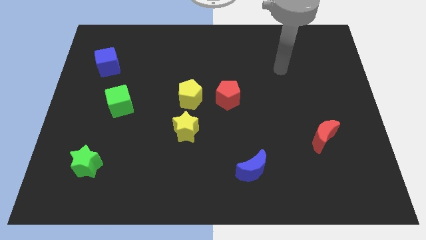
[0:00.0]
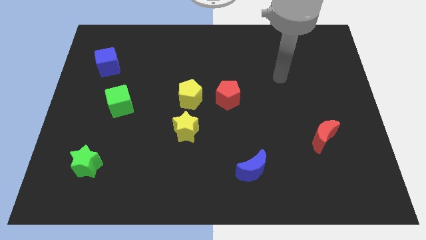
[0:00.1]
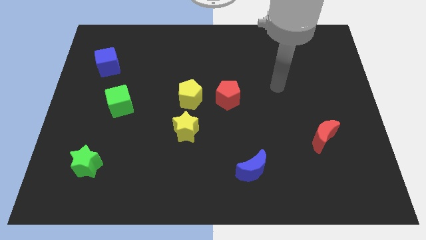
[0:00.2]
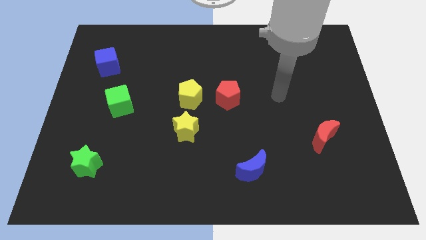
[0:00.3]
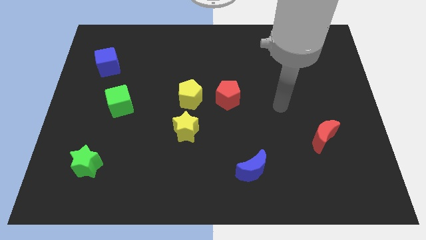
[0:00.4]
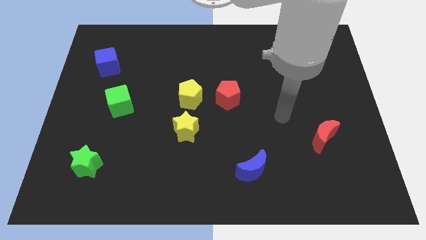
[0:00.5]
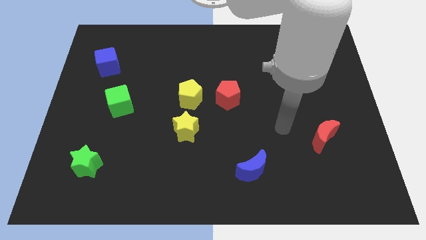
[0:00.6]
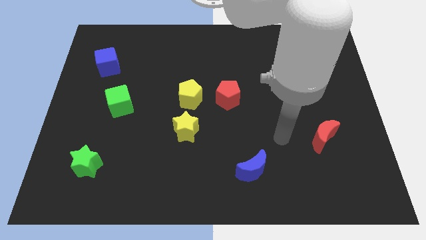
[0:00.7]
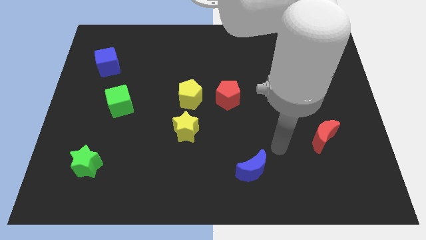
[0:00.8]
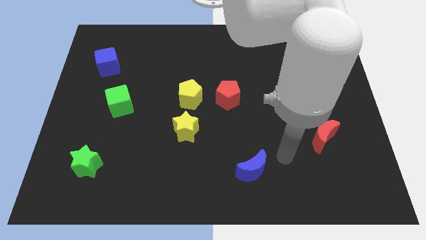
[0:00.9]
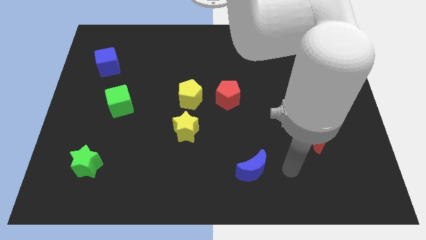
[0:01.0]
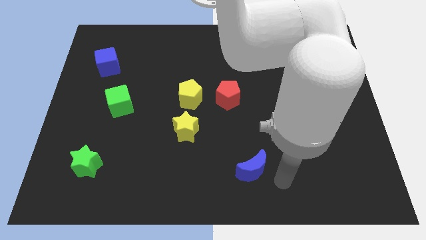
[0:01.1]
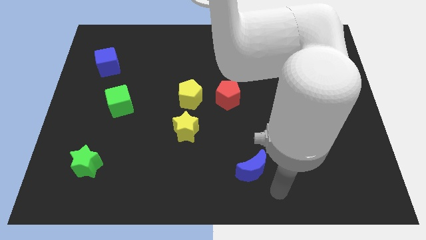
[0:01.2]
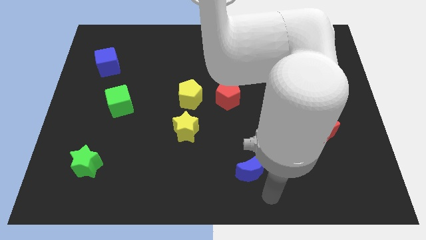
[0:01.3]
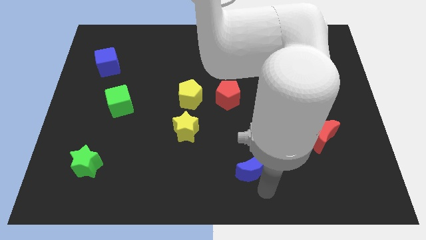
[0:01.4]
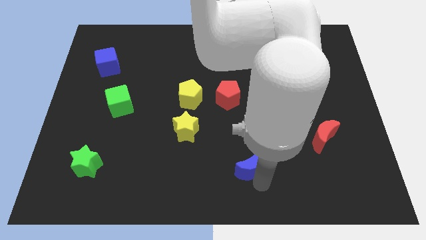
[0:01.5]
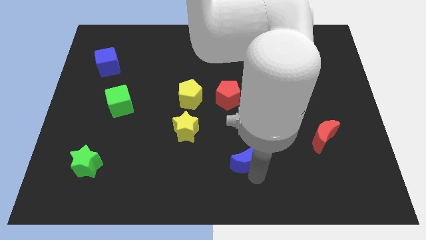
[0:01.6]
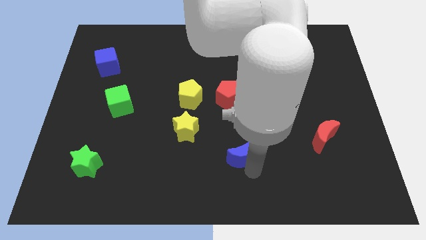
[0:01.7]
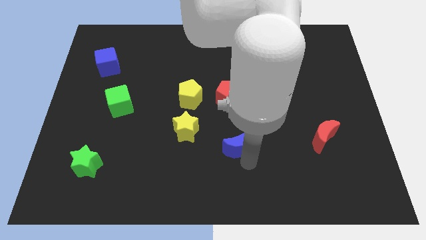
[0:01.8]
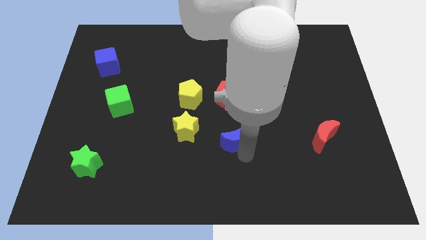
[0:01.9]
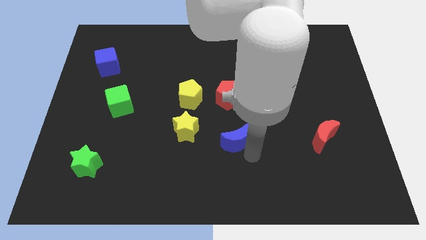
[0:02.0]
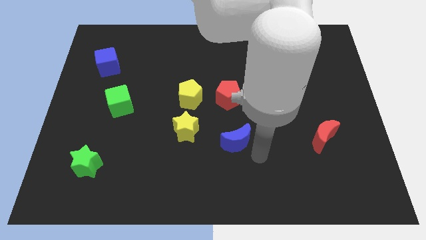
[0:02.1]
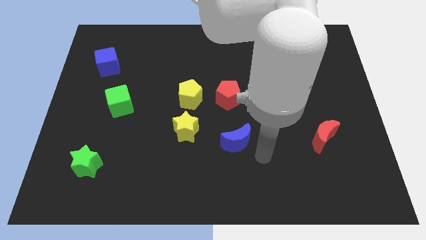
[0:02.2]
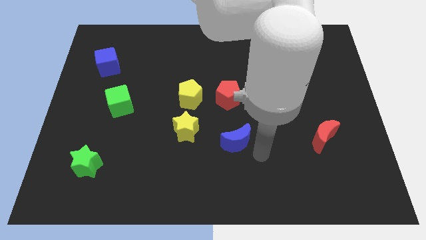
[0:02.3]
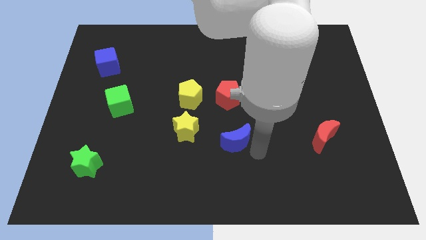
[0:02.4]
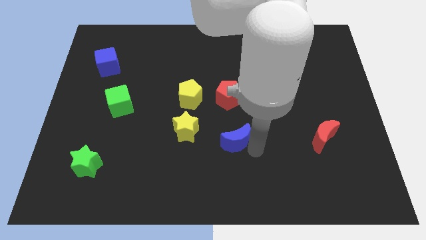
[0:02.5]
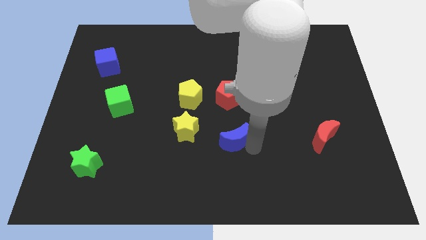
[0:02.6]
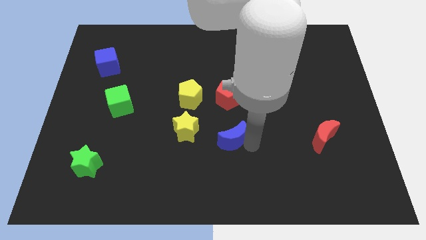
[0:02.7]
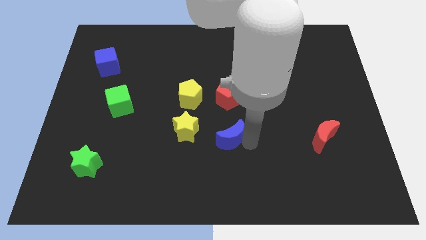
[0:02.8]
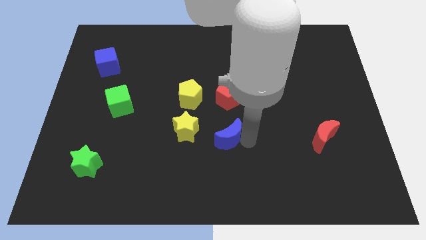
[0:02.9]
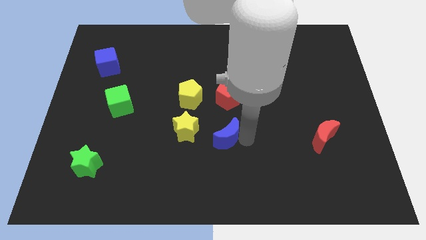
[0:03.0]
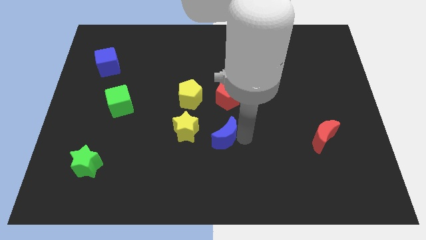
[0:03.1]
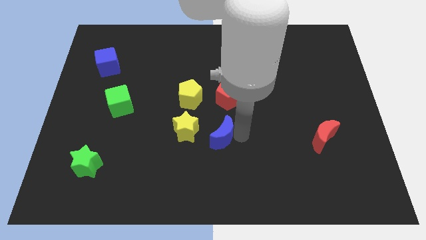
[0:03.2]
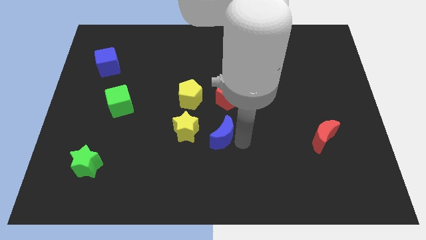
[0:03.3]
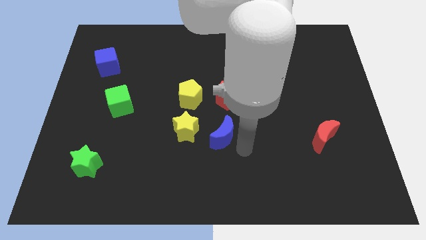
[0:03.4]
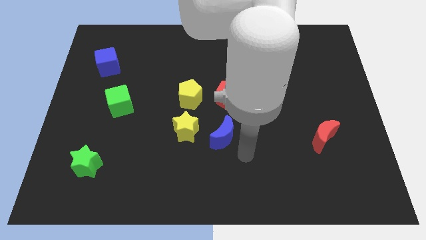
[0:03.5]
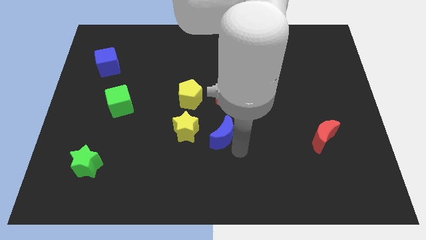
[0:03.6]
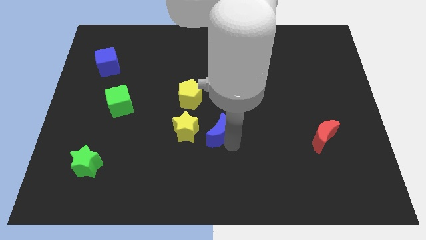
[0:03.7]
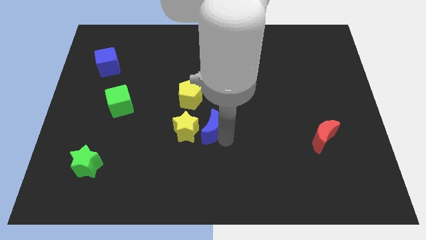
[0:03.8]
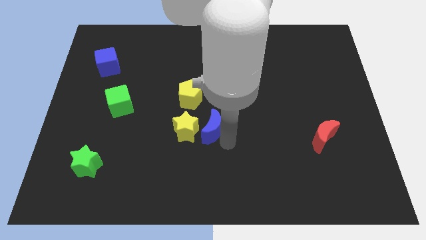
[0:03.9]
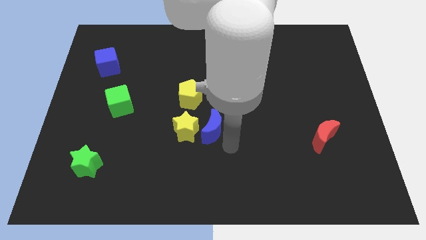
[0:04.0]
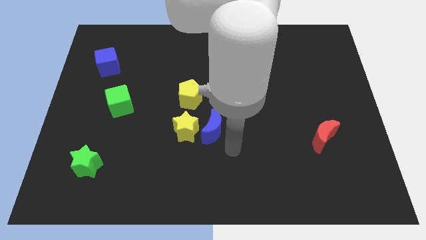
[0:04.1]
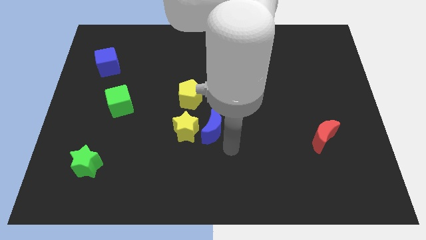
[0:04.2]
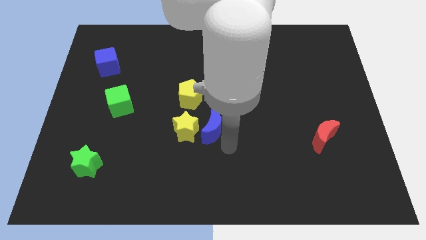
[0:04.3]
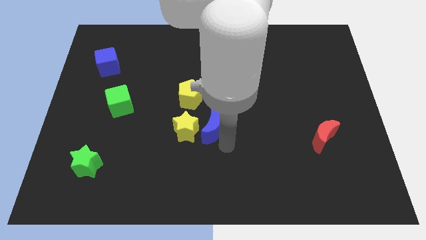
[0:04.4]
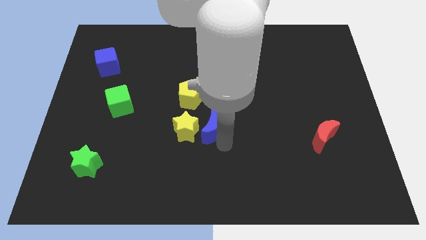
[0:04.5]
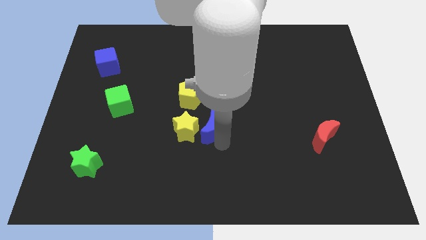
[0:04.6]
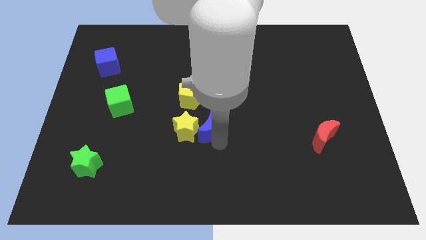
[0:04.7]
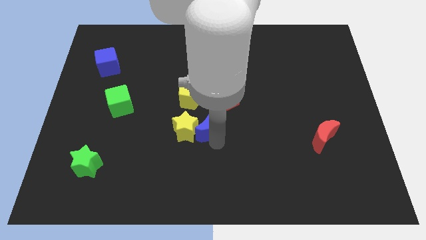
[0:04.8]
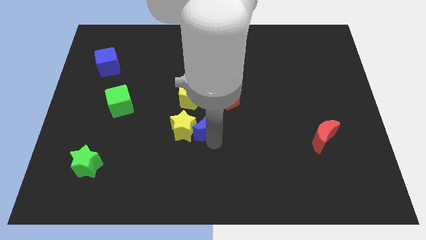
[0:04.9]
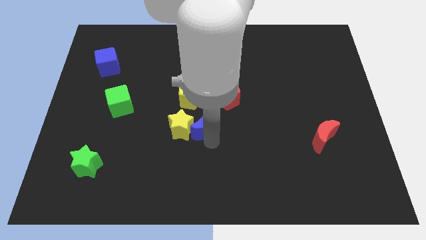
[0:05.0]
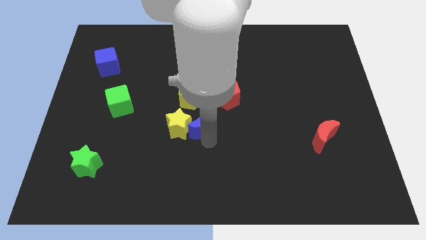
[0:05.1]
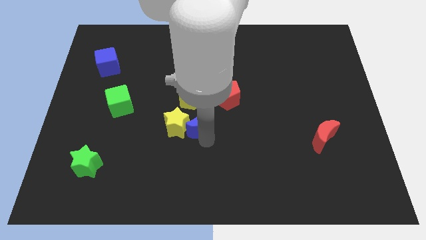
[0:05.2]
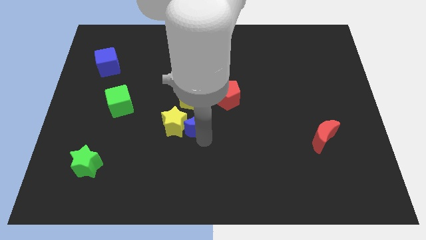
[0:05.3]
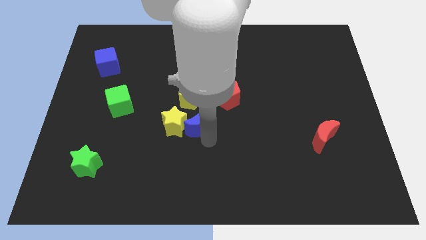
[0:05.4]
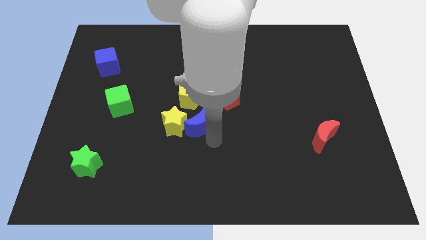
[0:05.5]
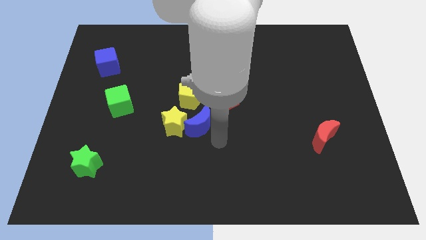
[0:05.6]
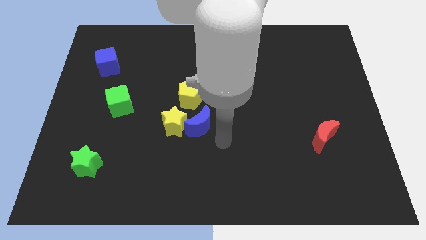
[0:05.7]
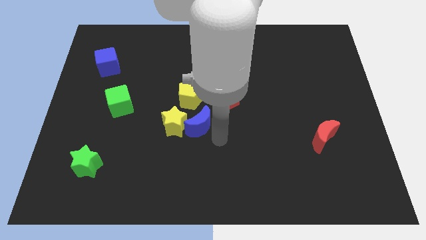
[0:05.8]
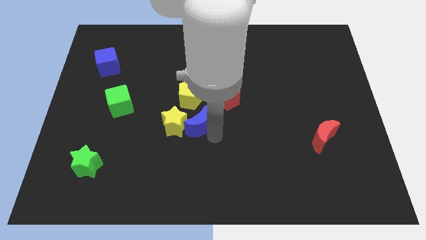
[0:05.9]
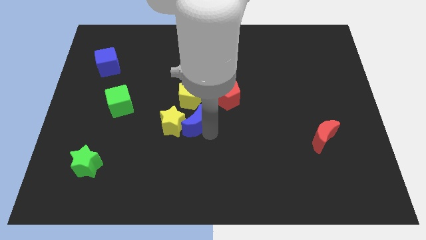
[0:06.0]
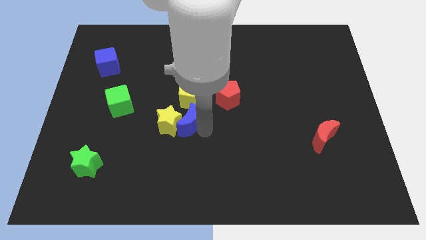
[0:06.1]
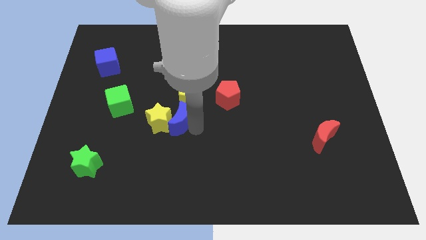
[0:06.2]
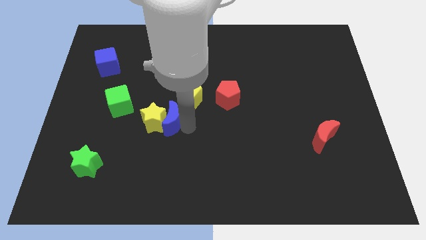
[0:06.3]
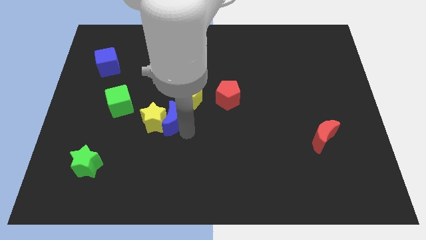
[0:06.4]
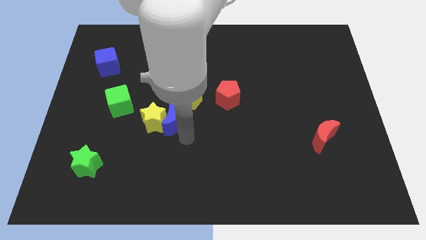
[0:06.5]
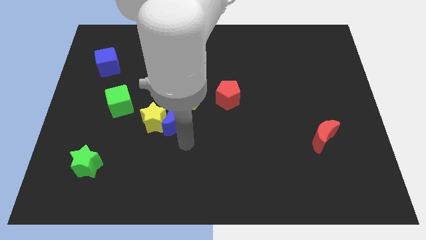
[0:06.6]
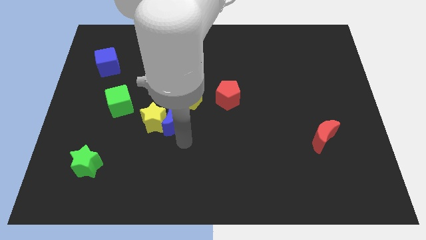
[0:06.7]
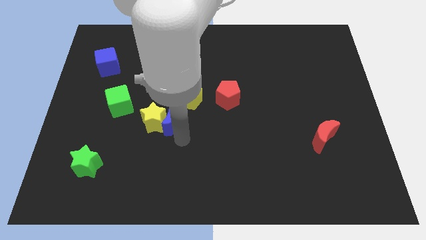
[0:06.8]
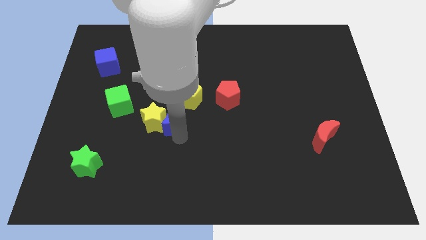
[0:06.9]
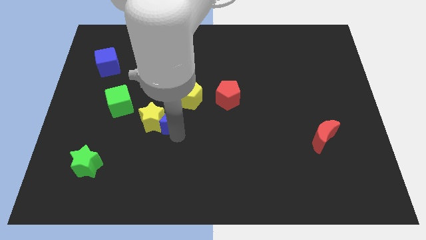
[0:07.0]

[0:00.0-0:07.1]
put the blue moon just right of the green cube
